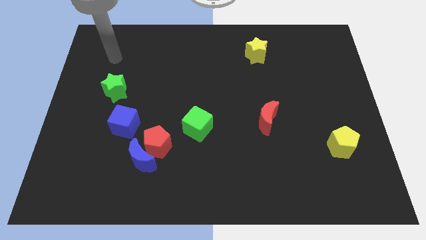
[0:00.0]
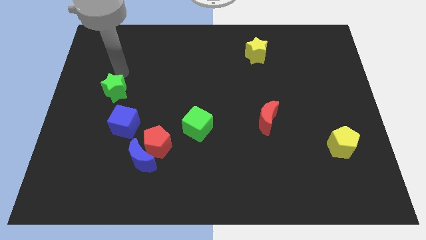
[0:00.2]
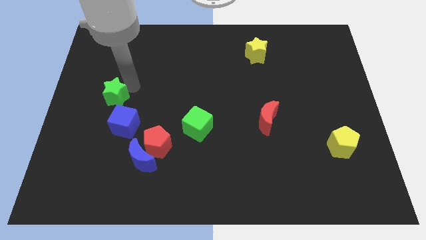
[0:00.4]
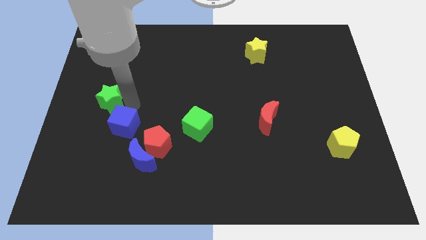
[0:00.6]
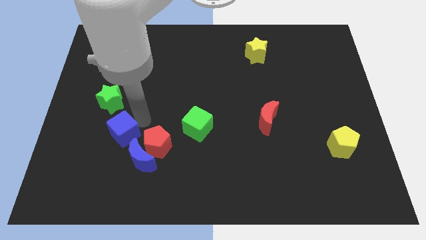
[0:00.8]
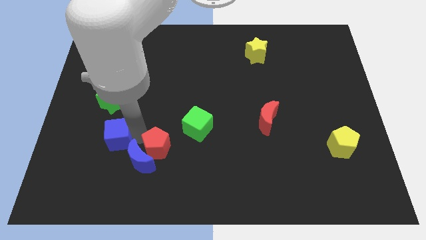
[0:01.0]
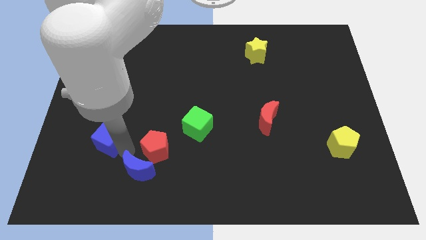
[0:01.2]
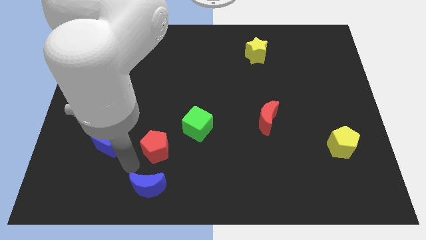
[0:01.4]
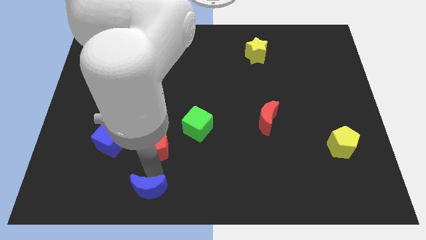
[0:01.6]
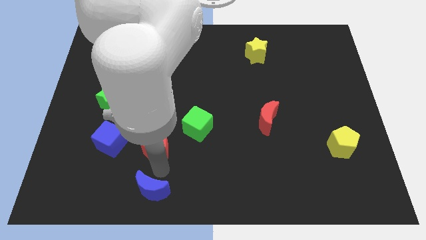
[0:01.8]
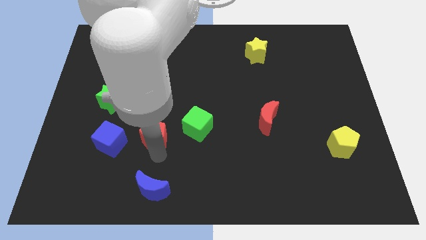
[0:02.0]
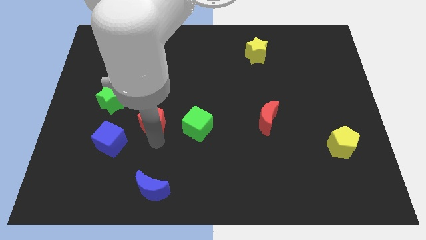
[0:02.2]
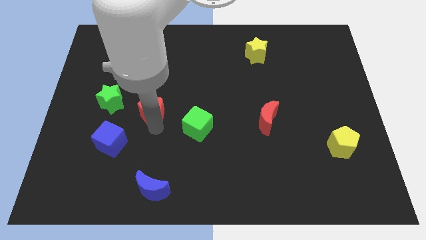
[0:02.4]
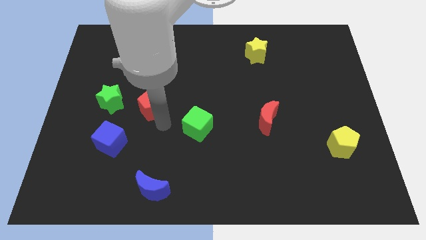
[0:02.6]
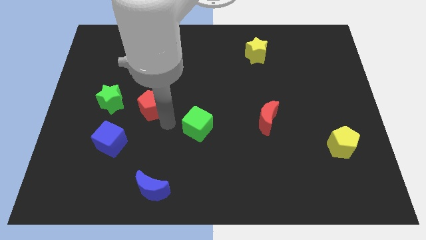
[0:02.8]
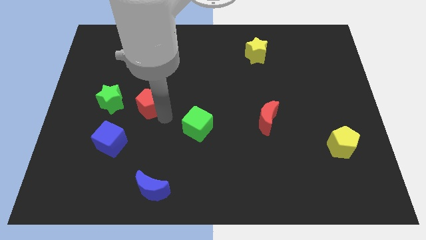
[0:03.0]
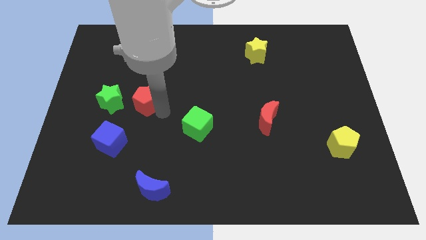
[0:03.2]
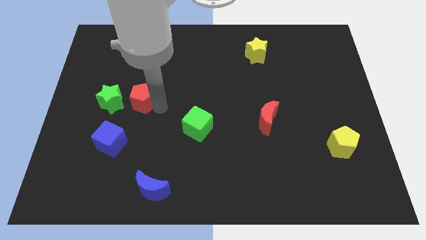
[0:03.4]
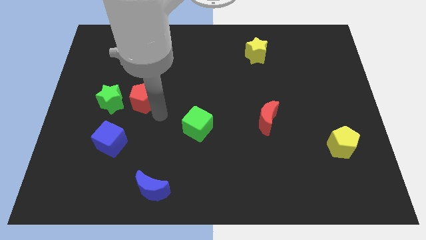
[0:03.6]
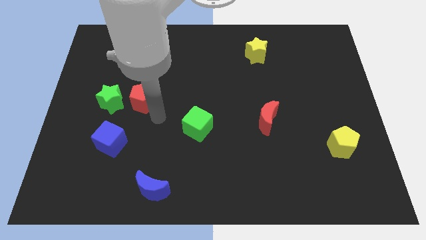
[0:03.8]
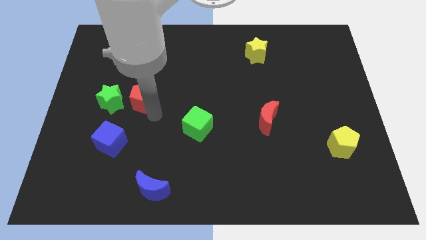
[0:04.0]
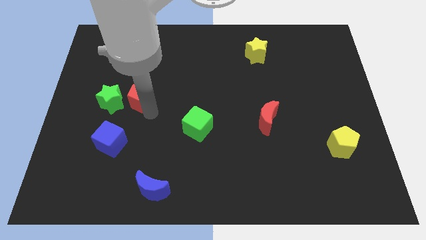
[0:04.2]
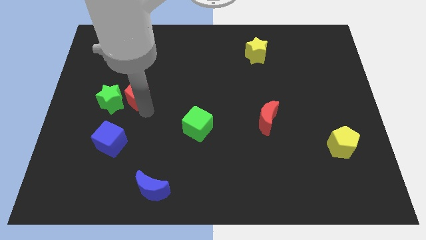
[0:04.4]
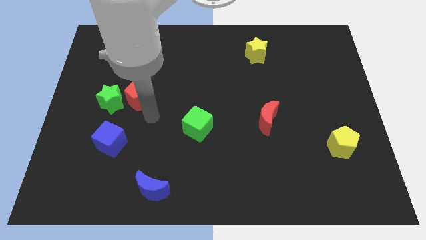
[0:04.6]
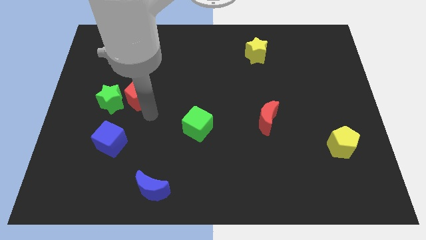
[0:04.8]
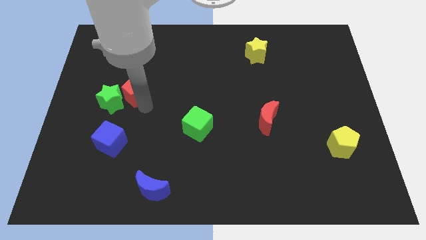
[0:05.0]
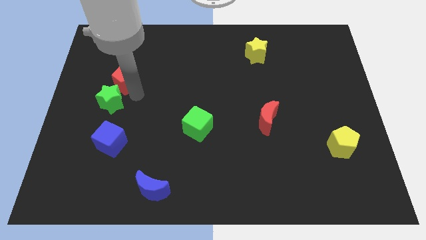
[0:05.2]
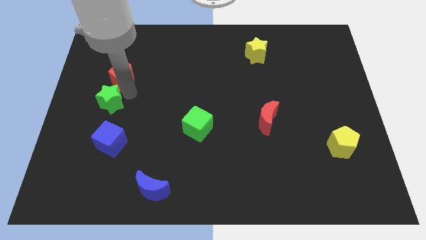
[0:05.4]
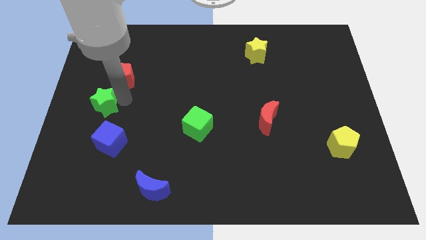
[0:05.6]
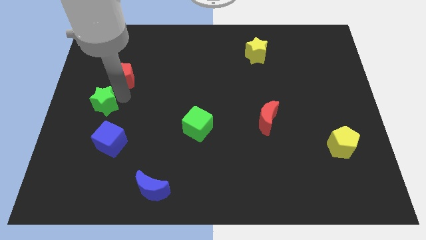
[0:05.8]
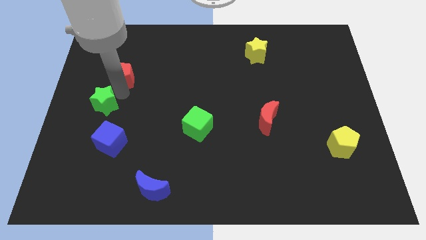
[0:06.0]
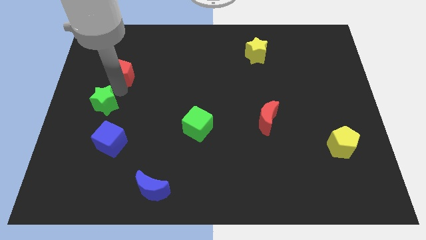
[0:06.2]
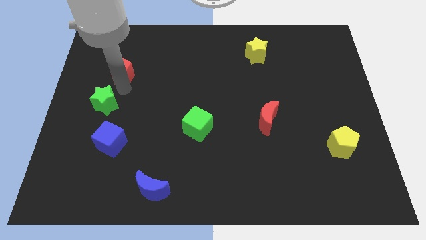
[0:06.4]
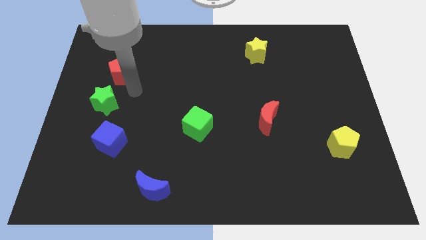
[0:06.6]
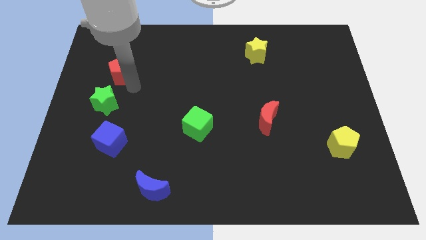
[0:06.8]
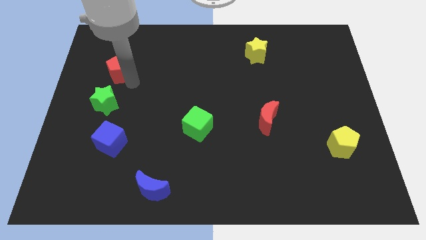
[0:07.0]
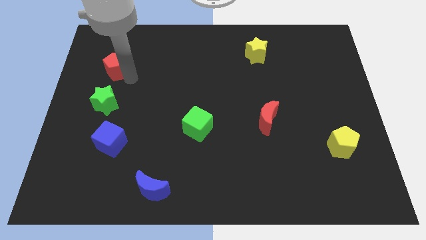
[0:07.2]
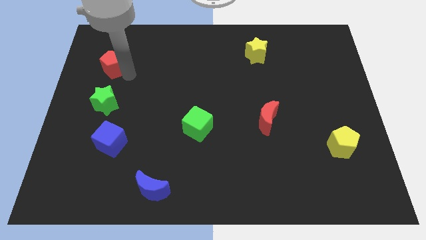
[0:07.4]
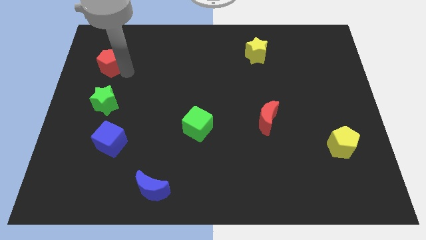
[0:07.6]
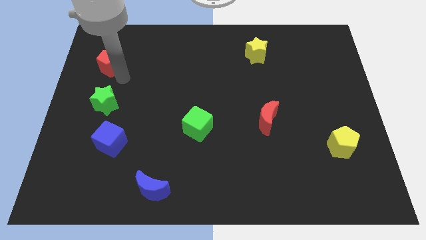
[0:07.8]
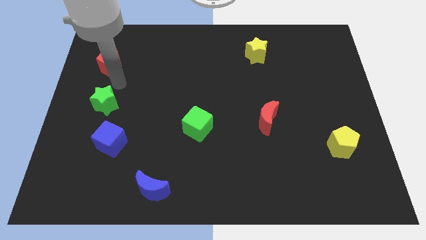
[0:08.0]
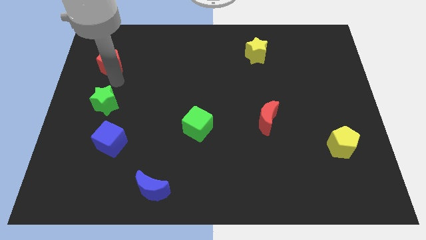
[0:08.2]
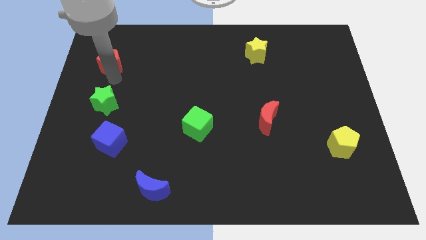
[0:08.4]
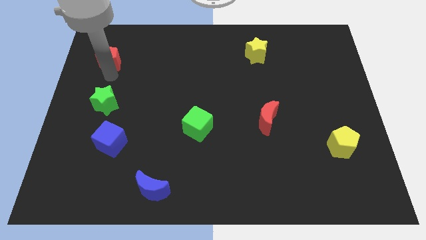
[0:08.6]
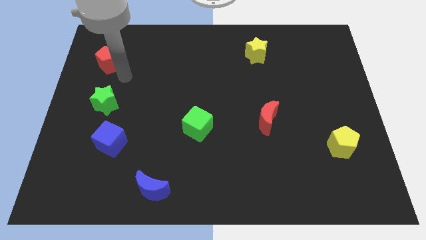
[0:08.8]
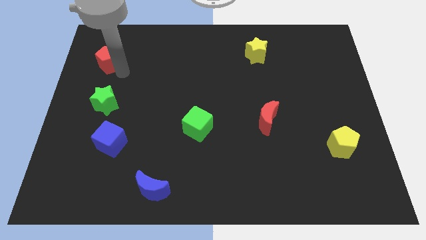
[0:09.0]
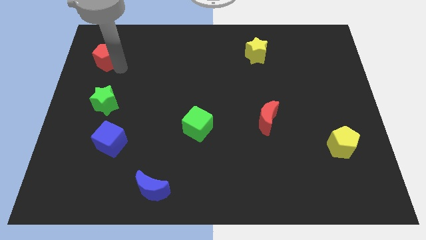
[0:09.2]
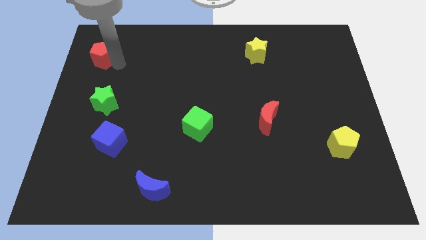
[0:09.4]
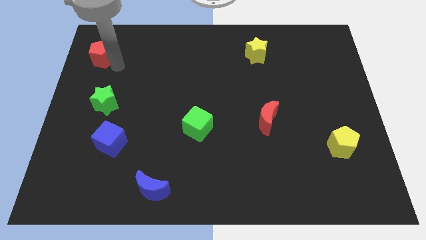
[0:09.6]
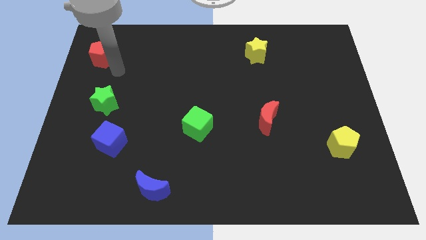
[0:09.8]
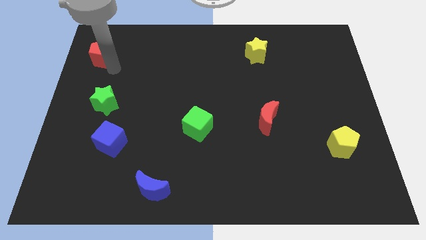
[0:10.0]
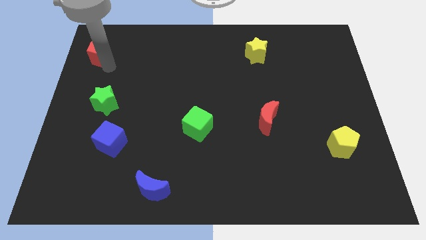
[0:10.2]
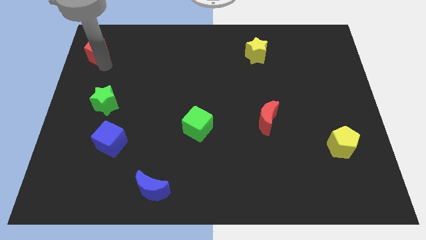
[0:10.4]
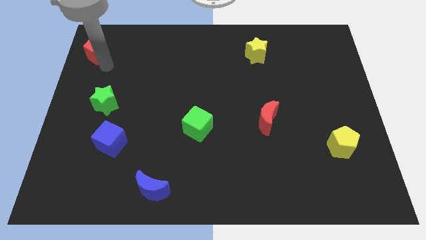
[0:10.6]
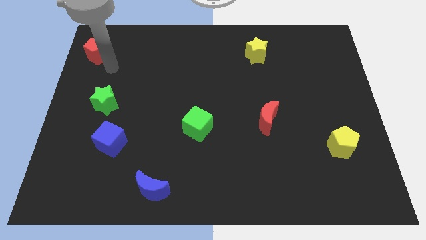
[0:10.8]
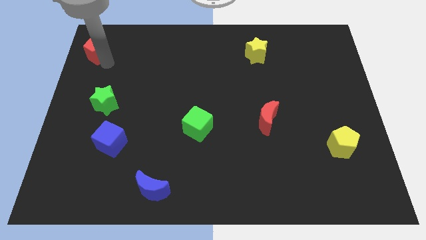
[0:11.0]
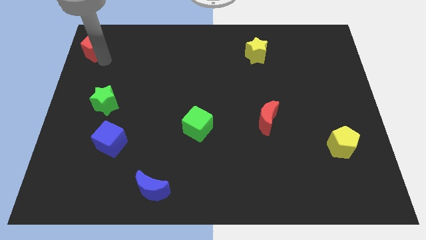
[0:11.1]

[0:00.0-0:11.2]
slide the red pentagon to the top left corner

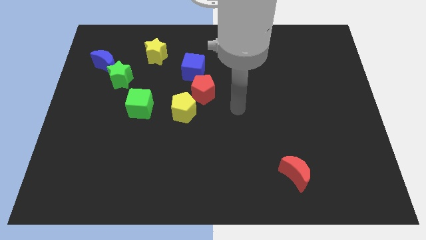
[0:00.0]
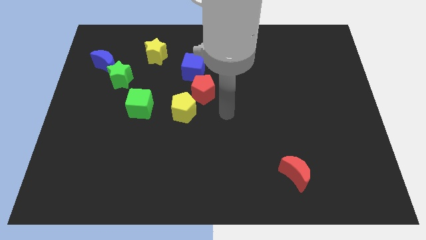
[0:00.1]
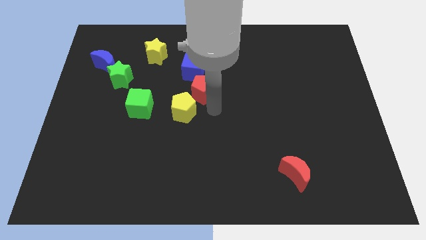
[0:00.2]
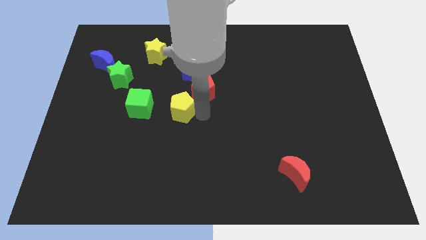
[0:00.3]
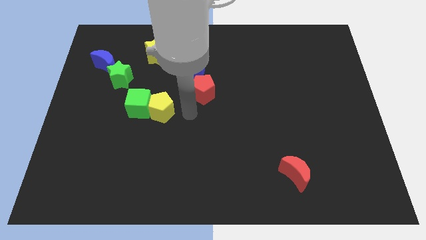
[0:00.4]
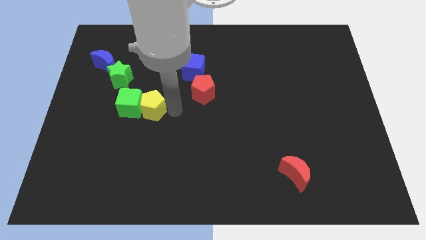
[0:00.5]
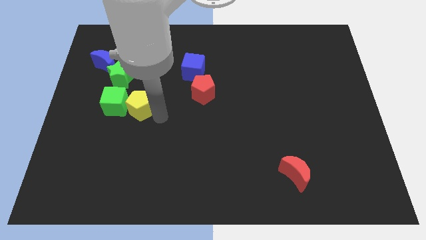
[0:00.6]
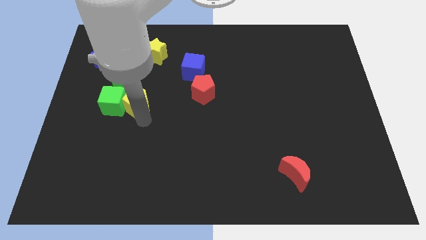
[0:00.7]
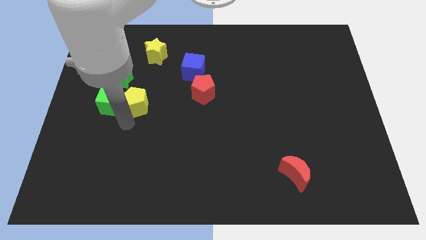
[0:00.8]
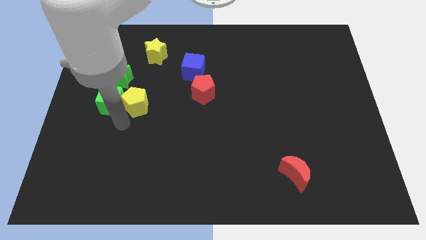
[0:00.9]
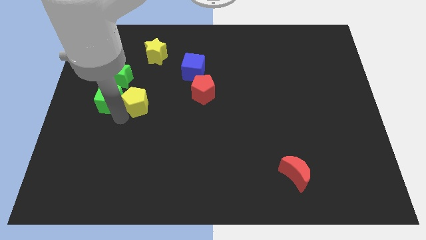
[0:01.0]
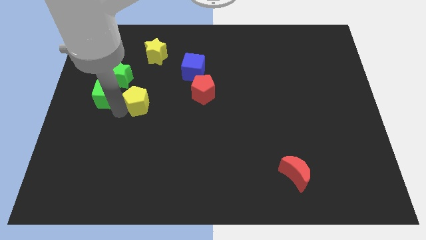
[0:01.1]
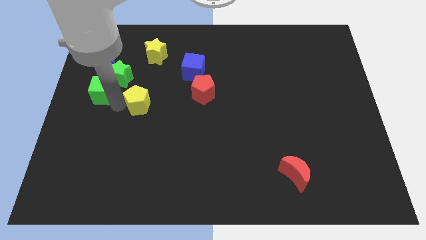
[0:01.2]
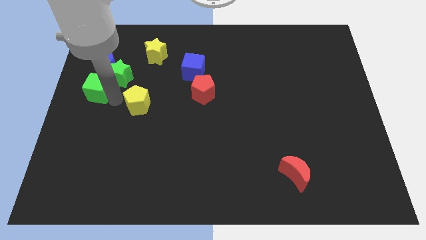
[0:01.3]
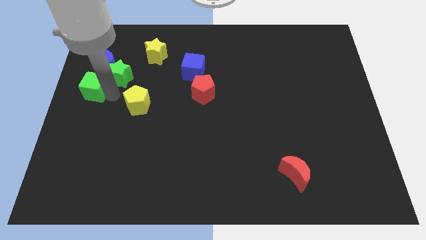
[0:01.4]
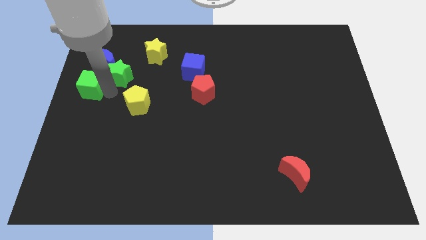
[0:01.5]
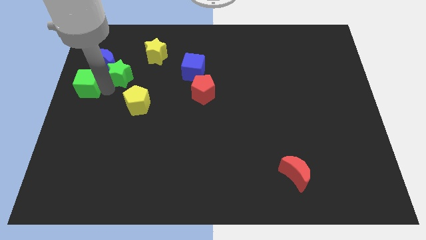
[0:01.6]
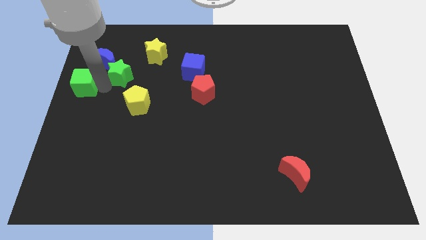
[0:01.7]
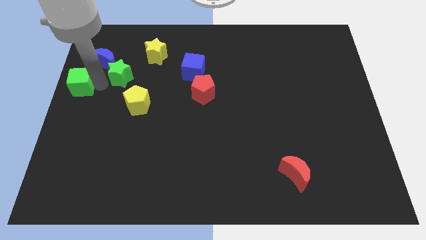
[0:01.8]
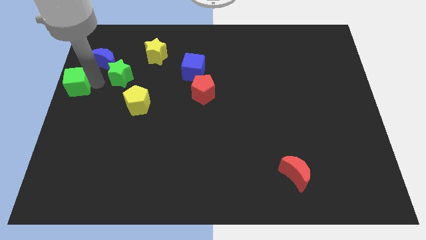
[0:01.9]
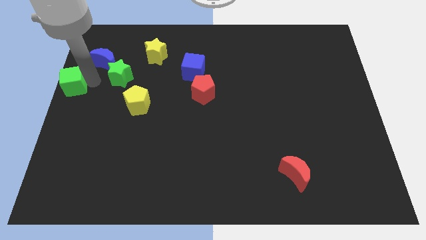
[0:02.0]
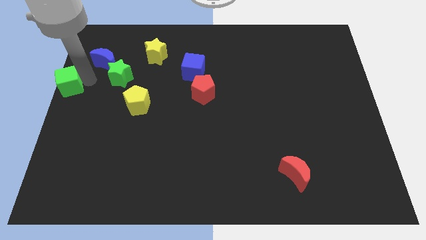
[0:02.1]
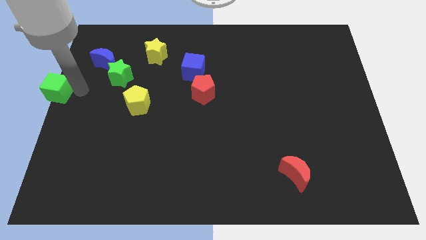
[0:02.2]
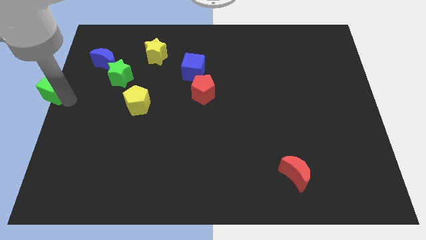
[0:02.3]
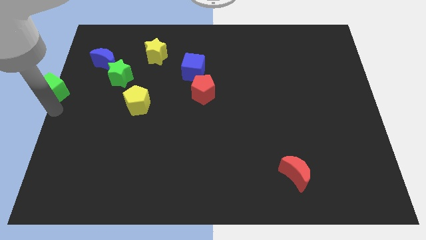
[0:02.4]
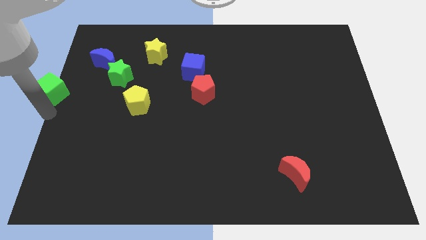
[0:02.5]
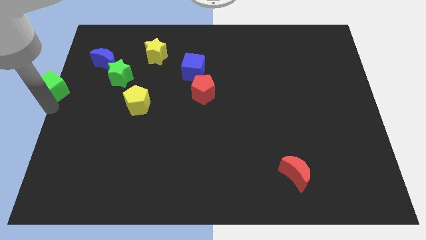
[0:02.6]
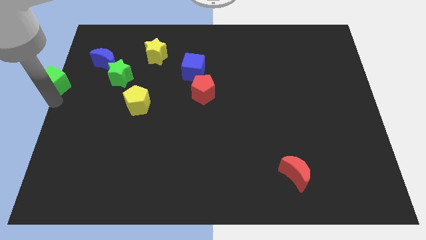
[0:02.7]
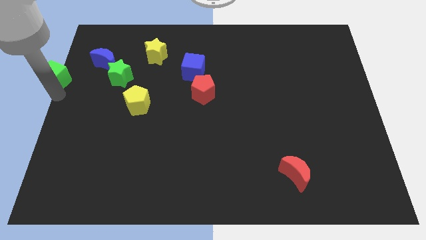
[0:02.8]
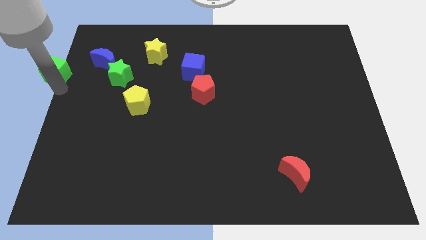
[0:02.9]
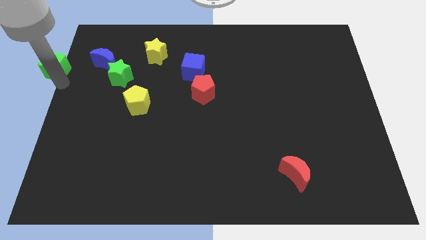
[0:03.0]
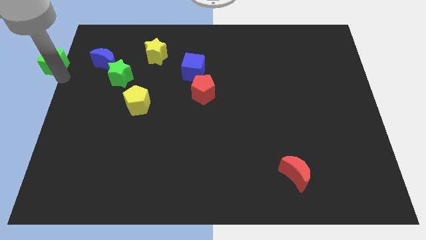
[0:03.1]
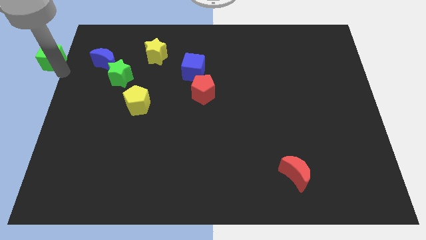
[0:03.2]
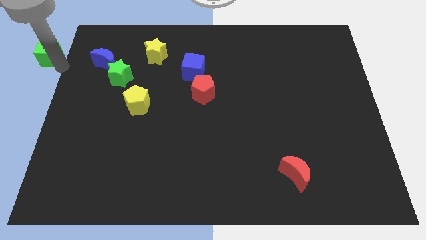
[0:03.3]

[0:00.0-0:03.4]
push the green cube to the top left corner
